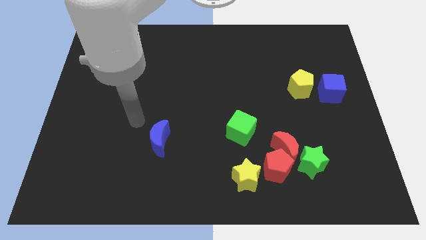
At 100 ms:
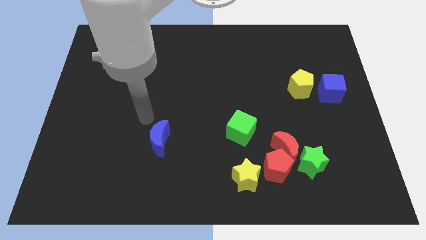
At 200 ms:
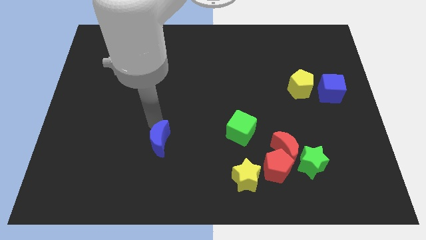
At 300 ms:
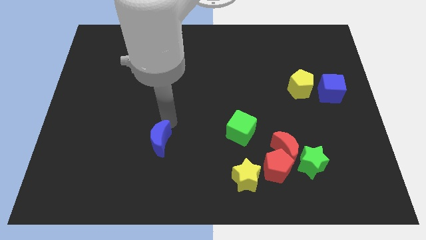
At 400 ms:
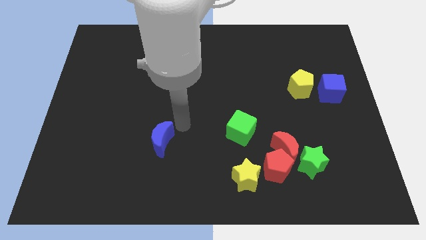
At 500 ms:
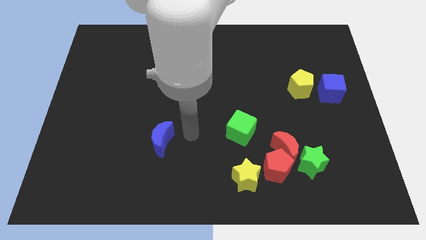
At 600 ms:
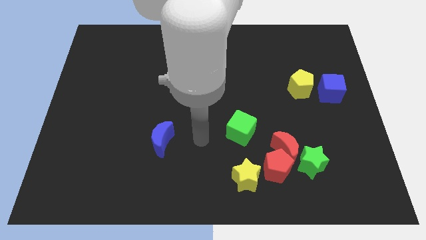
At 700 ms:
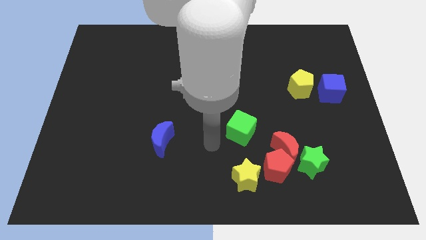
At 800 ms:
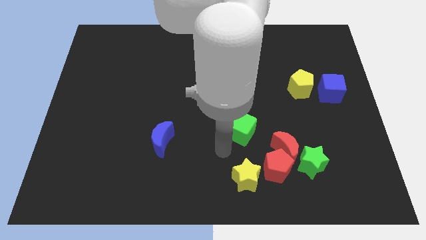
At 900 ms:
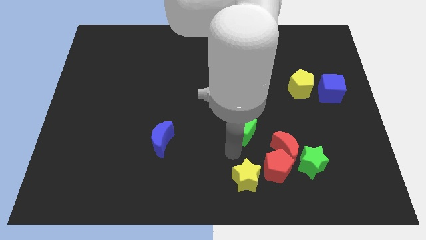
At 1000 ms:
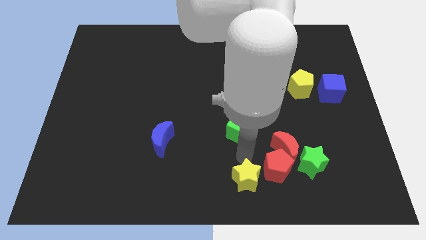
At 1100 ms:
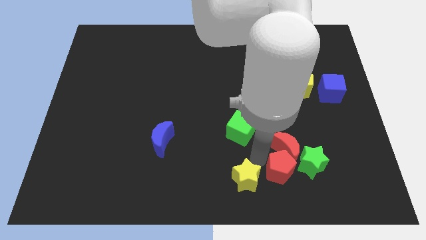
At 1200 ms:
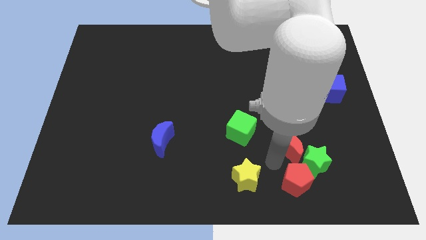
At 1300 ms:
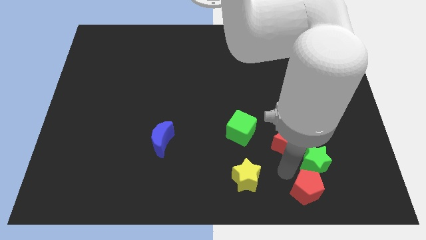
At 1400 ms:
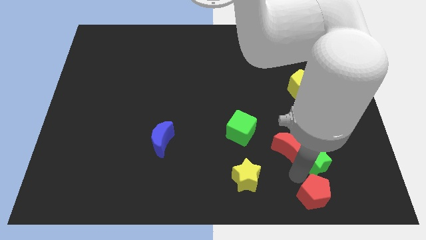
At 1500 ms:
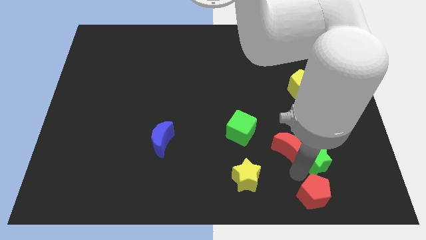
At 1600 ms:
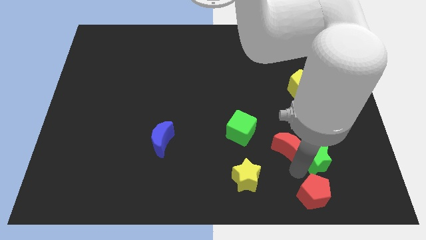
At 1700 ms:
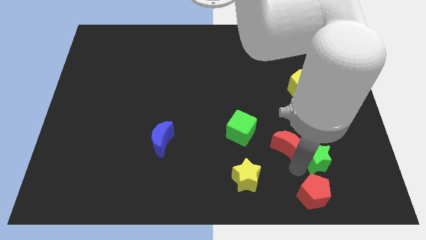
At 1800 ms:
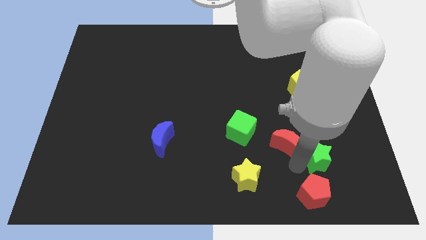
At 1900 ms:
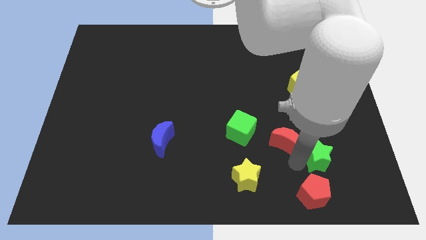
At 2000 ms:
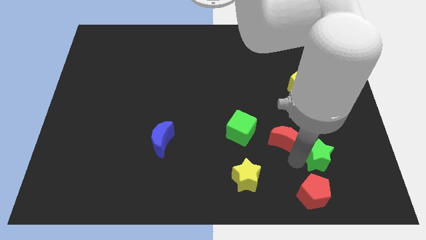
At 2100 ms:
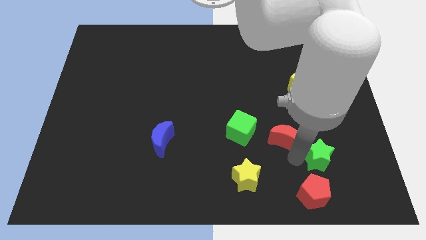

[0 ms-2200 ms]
pull the red moon apart from the red pentagon and green star

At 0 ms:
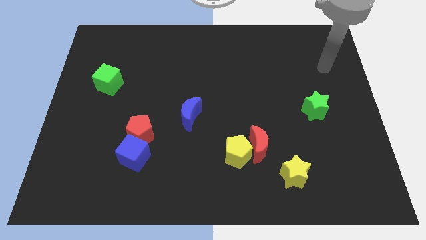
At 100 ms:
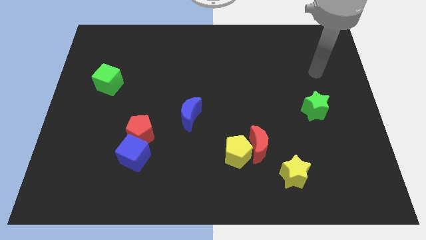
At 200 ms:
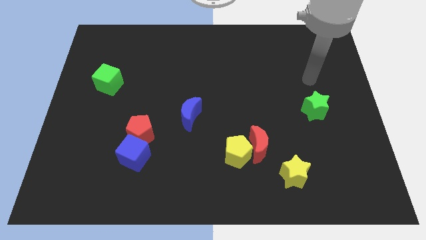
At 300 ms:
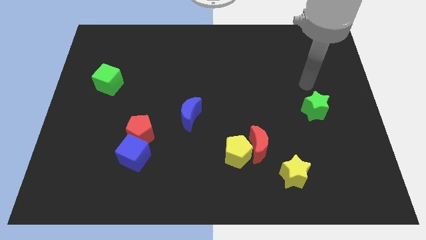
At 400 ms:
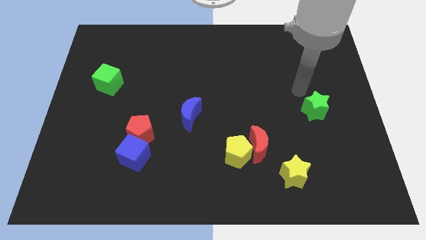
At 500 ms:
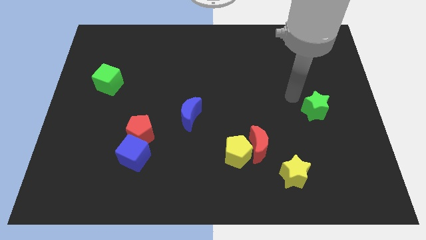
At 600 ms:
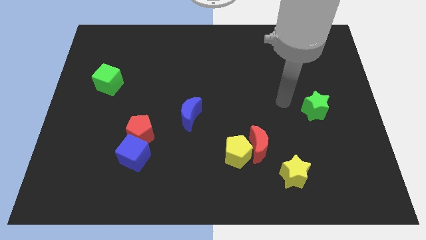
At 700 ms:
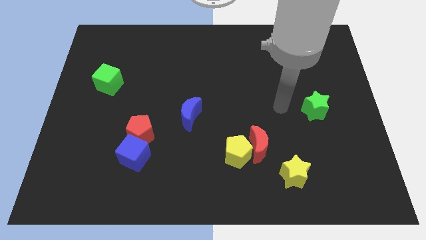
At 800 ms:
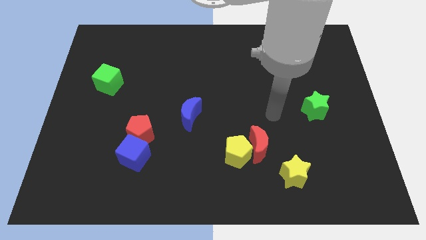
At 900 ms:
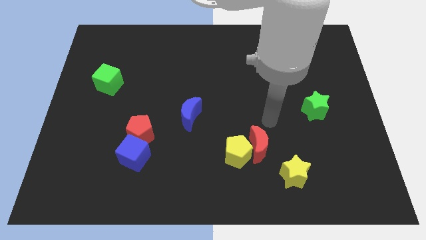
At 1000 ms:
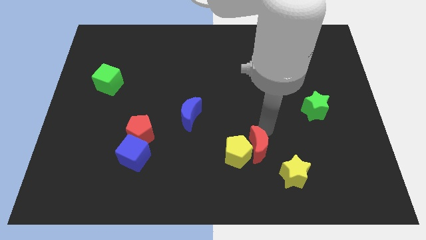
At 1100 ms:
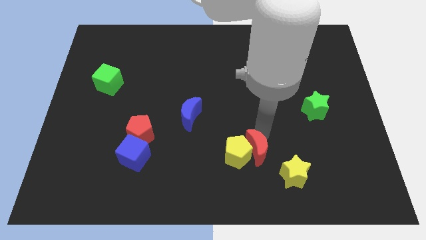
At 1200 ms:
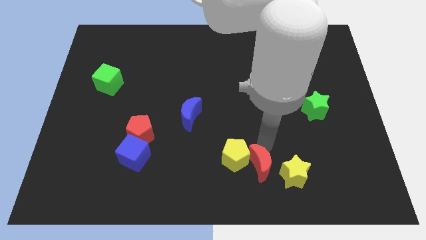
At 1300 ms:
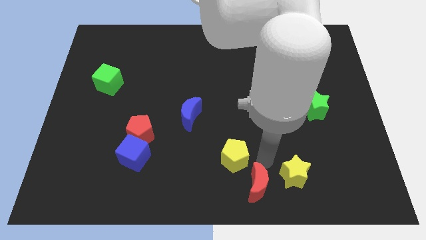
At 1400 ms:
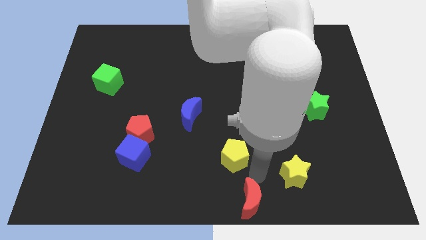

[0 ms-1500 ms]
pull the yellow pentagon apart from the red moon

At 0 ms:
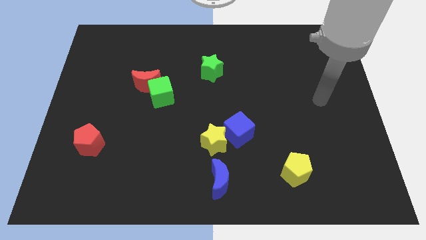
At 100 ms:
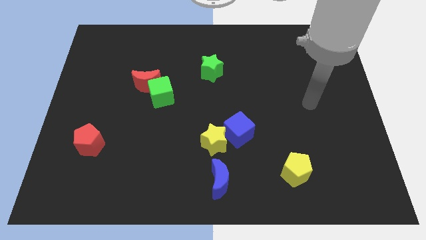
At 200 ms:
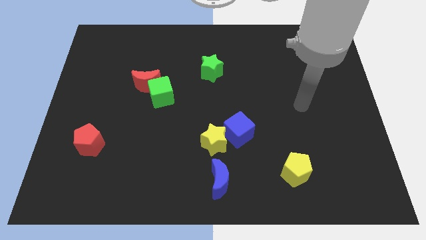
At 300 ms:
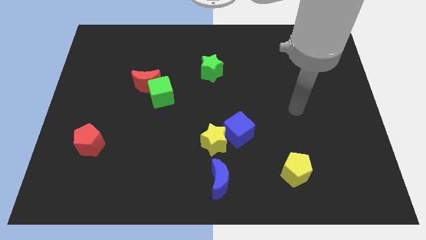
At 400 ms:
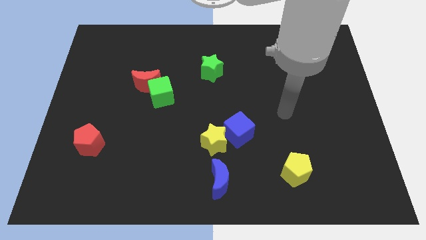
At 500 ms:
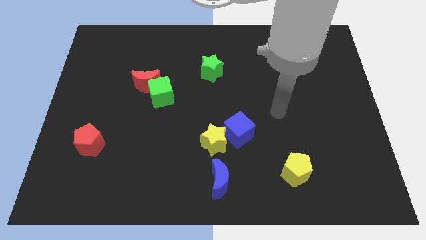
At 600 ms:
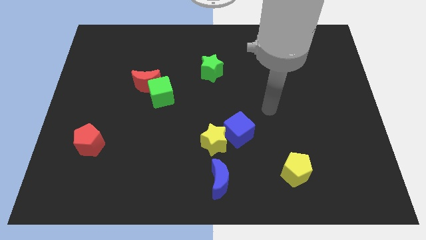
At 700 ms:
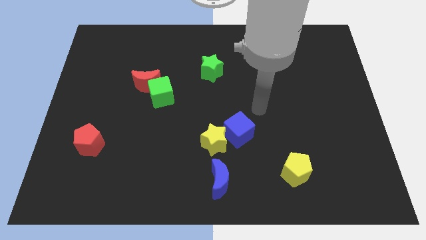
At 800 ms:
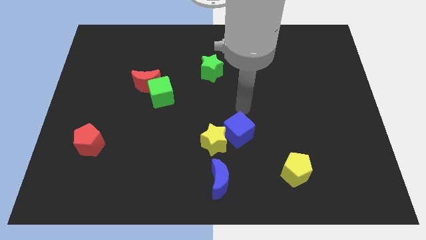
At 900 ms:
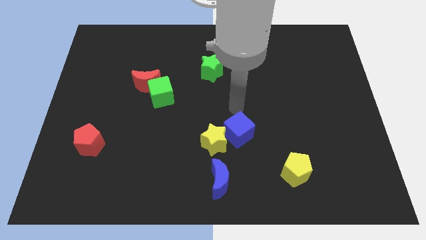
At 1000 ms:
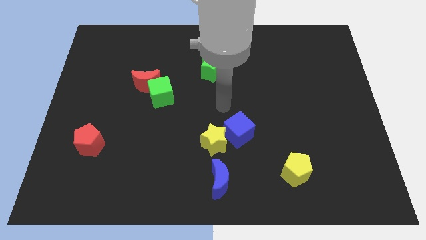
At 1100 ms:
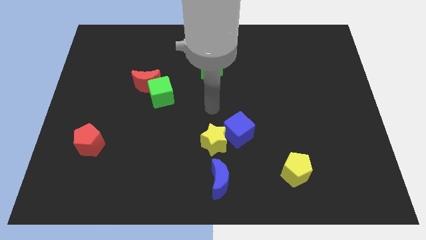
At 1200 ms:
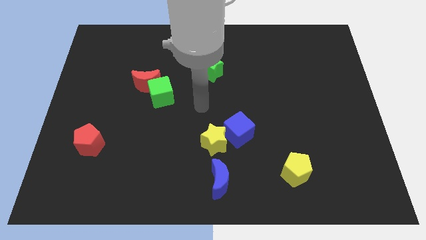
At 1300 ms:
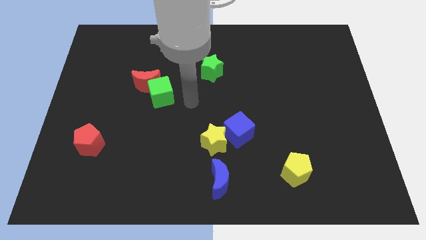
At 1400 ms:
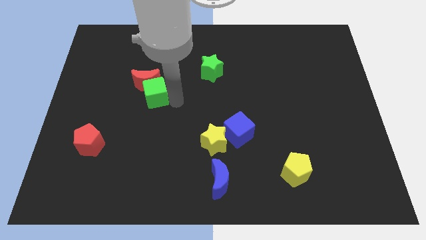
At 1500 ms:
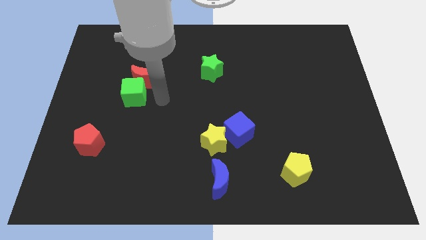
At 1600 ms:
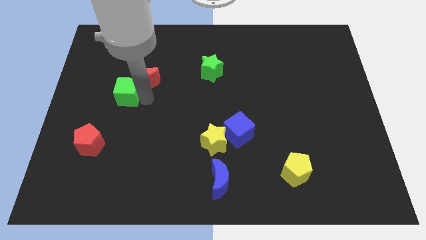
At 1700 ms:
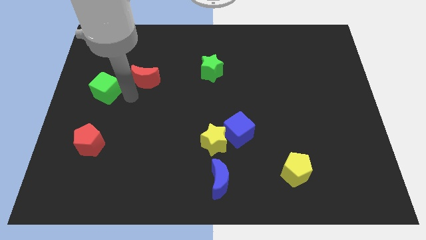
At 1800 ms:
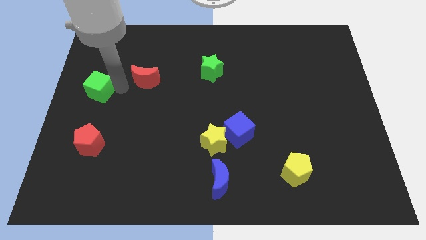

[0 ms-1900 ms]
move the red moon away from the green cube

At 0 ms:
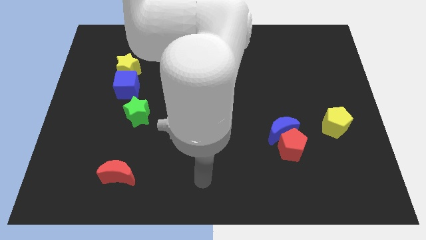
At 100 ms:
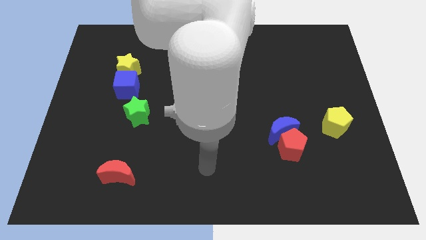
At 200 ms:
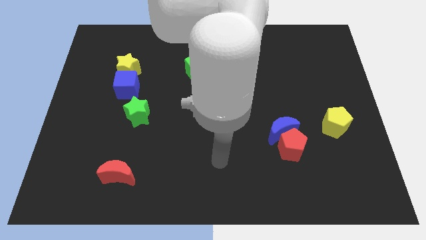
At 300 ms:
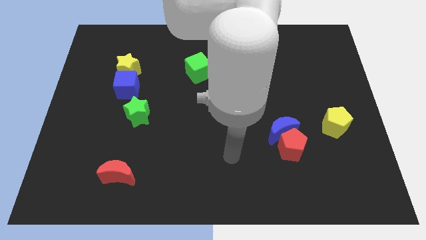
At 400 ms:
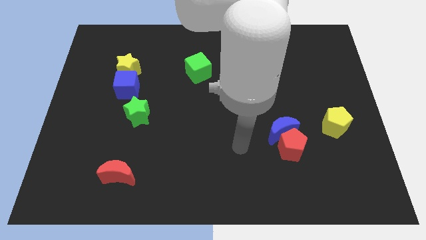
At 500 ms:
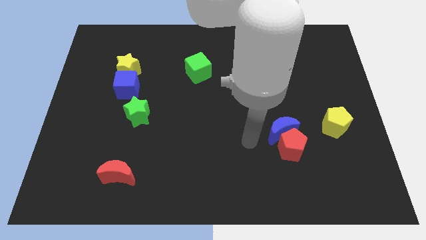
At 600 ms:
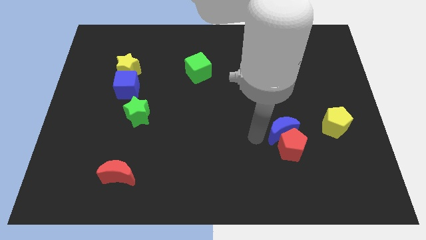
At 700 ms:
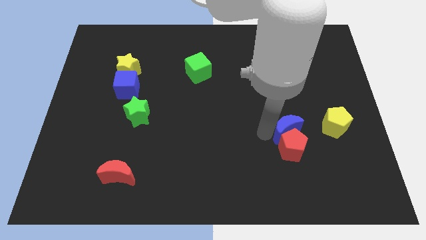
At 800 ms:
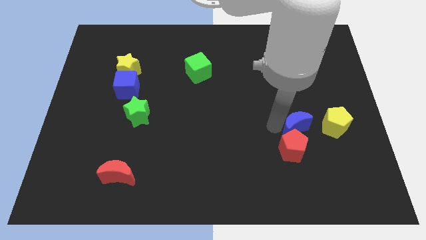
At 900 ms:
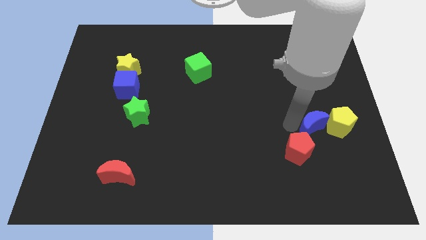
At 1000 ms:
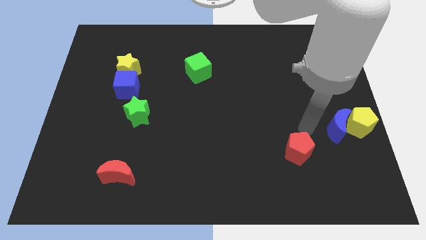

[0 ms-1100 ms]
move the red pentagon away from the blue moon

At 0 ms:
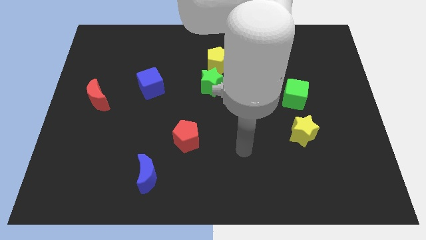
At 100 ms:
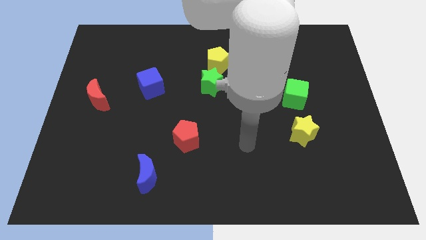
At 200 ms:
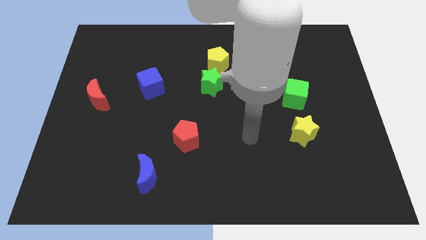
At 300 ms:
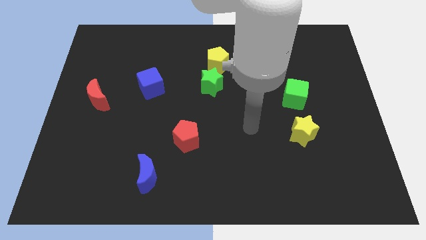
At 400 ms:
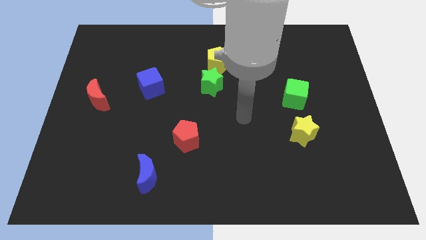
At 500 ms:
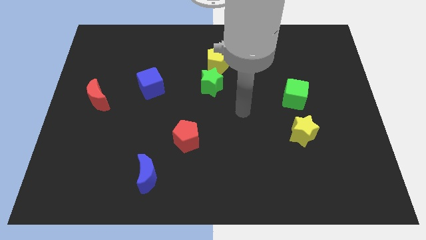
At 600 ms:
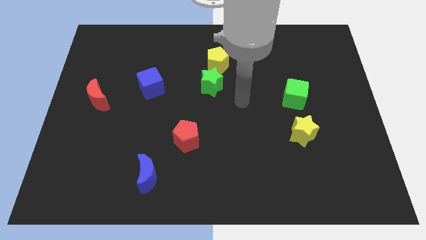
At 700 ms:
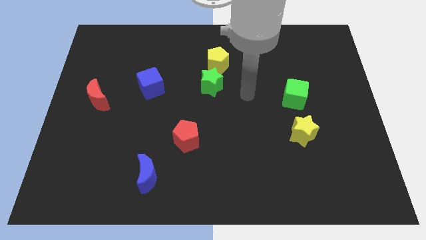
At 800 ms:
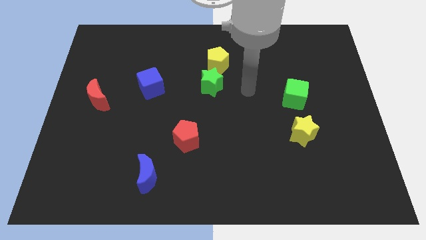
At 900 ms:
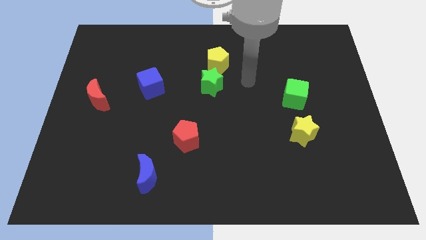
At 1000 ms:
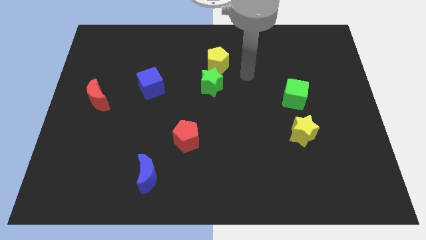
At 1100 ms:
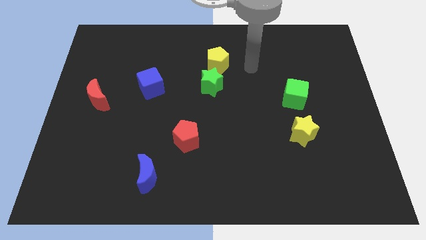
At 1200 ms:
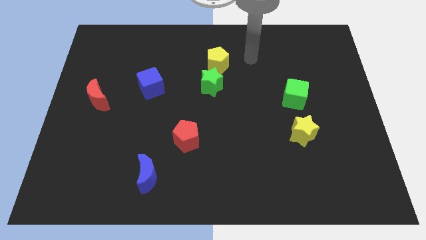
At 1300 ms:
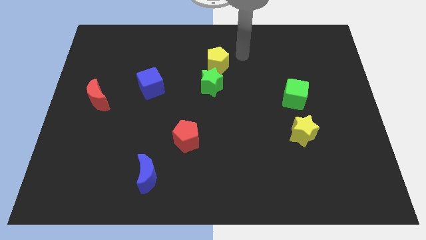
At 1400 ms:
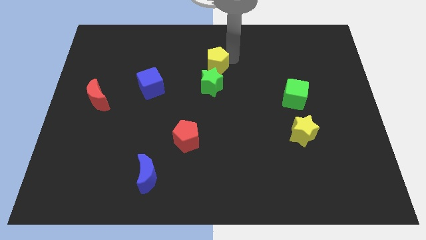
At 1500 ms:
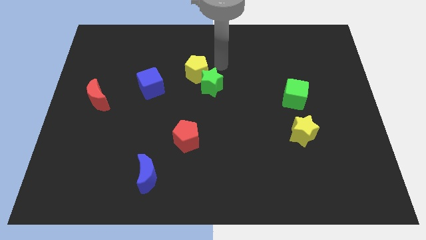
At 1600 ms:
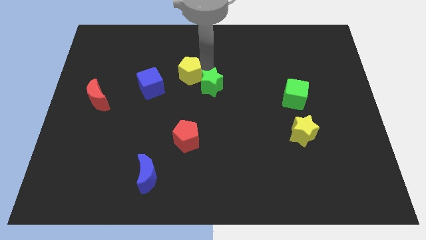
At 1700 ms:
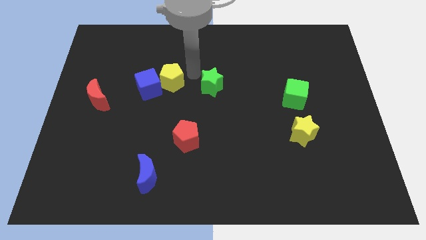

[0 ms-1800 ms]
separate the green star from the yellow pentagon

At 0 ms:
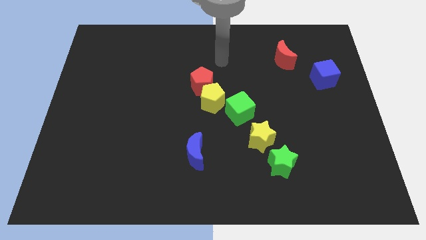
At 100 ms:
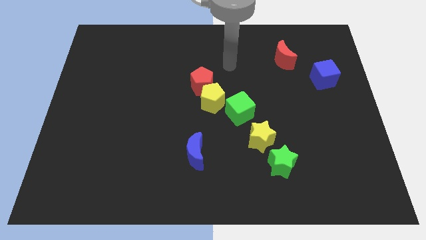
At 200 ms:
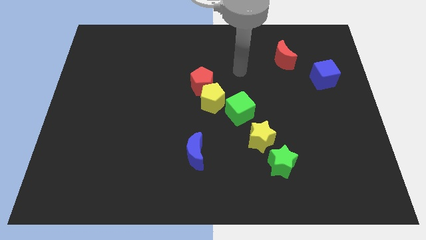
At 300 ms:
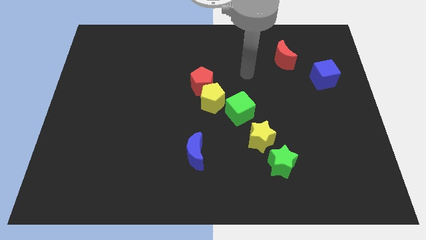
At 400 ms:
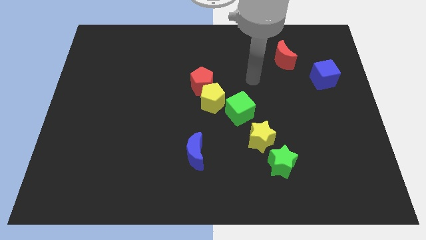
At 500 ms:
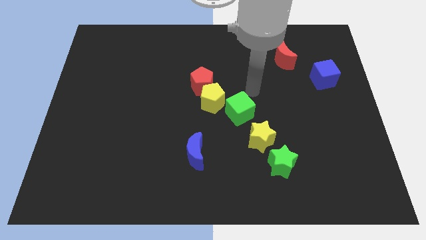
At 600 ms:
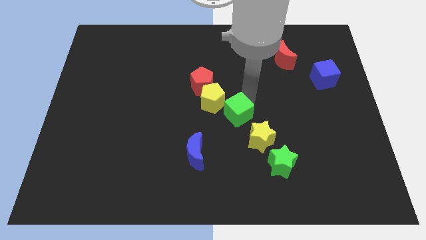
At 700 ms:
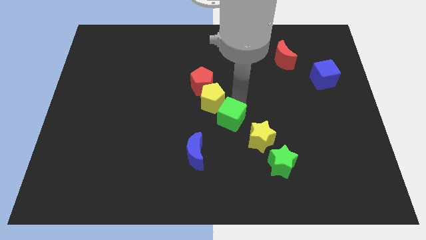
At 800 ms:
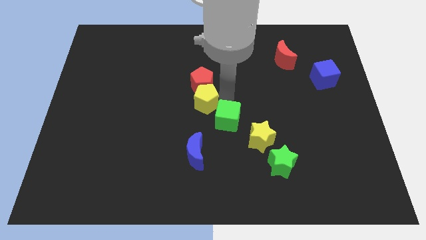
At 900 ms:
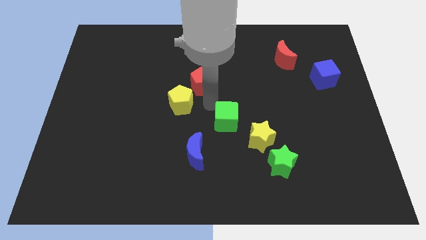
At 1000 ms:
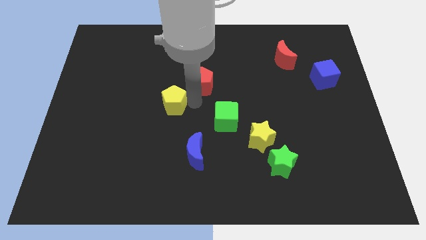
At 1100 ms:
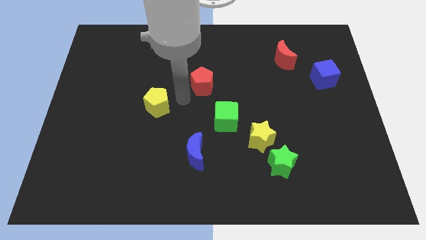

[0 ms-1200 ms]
pull the red pentagon apart from the yellow pentagon
